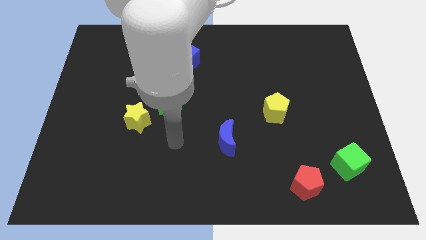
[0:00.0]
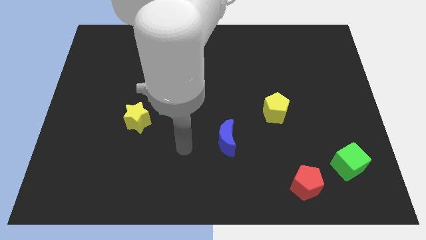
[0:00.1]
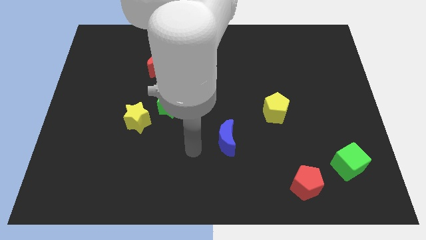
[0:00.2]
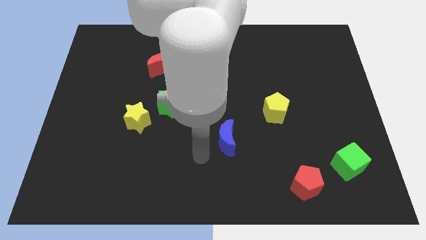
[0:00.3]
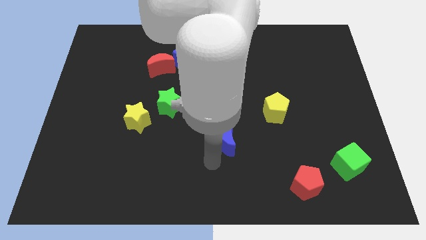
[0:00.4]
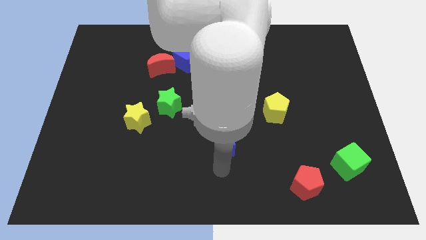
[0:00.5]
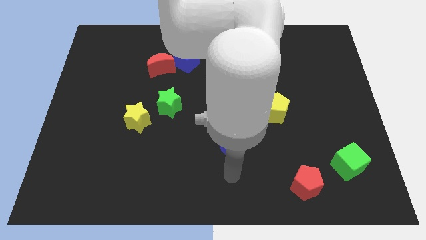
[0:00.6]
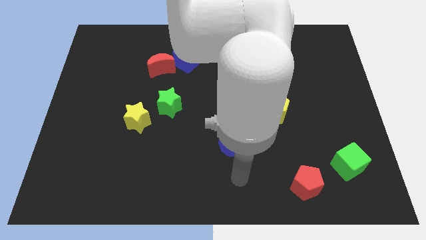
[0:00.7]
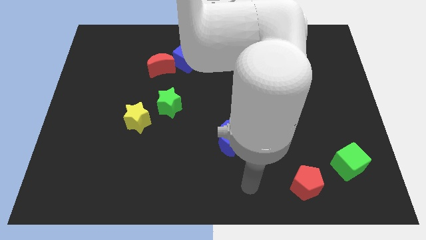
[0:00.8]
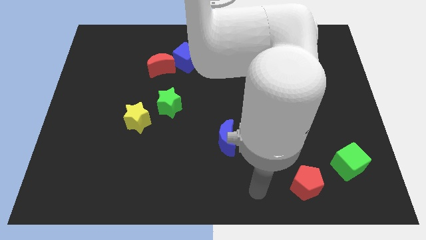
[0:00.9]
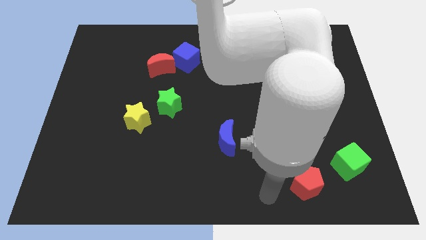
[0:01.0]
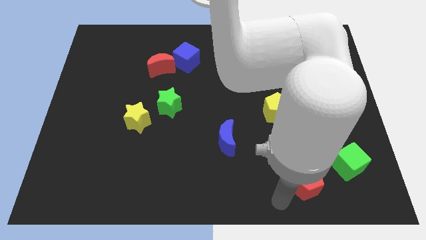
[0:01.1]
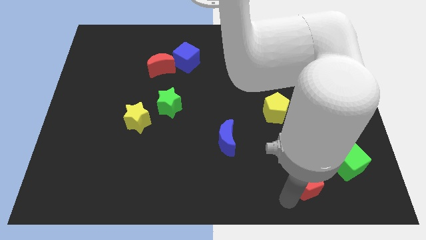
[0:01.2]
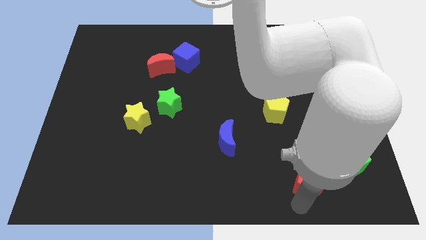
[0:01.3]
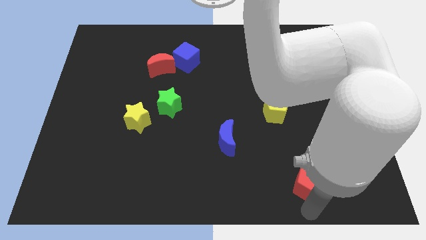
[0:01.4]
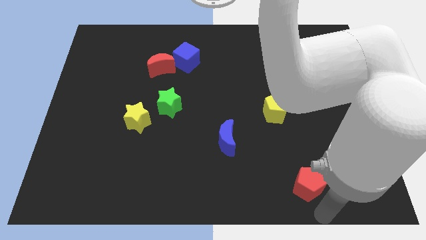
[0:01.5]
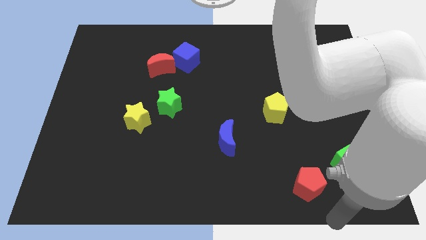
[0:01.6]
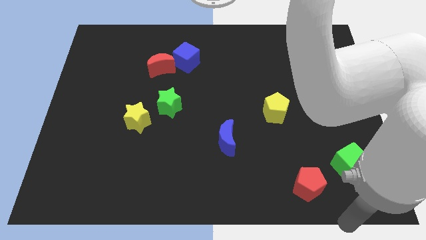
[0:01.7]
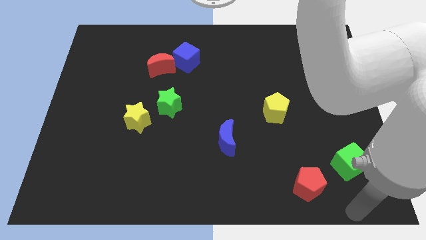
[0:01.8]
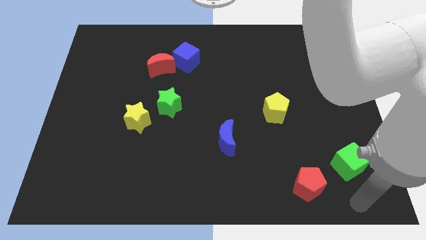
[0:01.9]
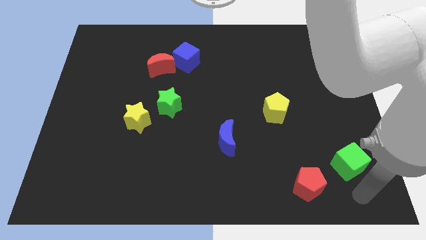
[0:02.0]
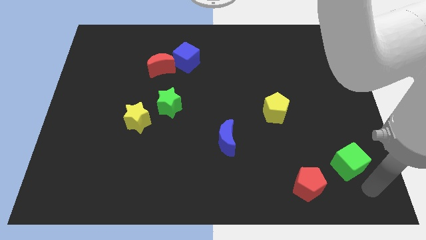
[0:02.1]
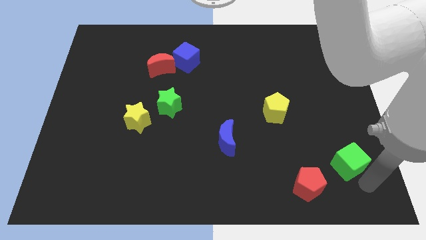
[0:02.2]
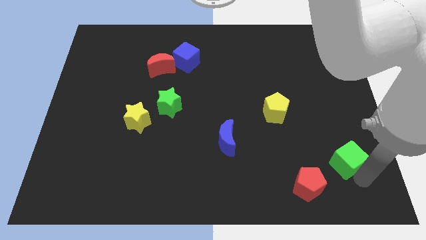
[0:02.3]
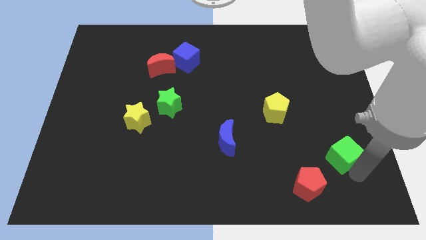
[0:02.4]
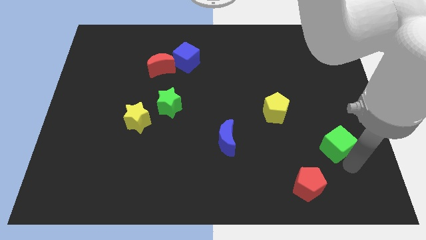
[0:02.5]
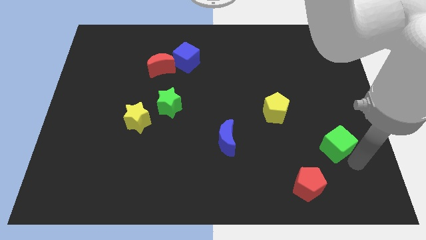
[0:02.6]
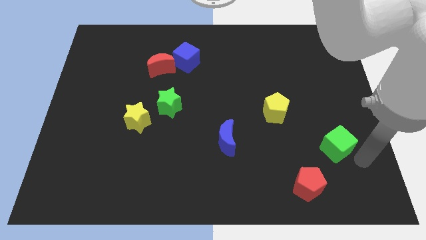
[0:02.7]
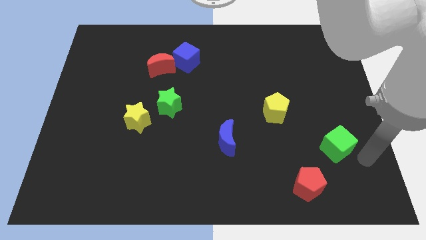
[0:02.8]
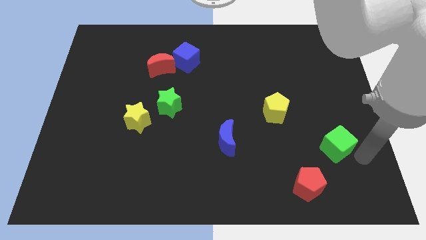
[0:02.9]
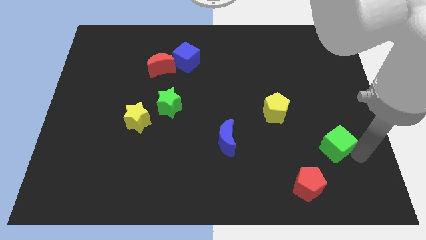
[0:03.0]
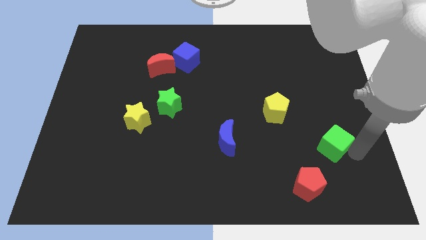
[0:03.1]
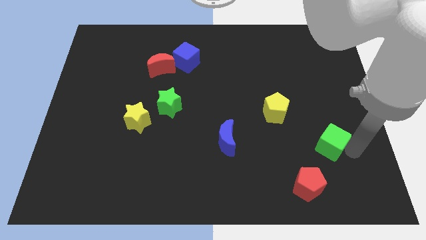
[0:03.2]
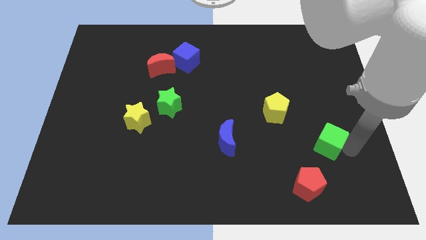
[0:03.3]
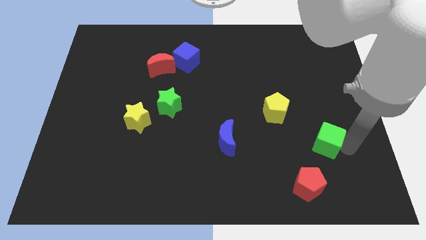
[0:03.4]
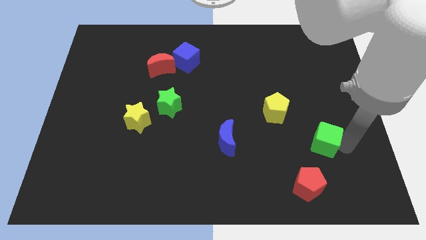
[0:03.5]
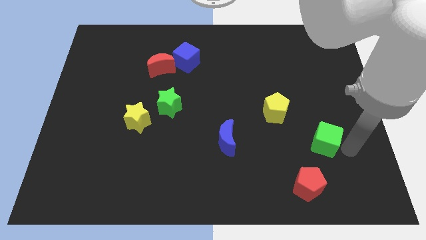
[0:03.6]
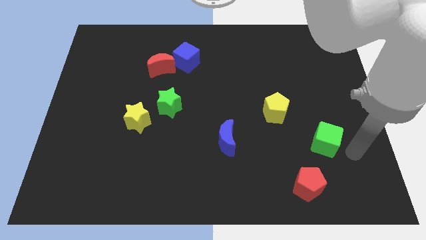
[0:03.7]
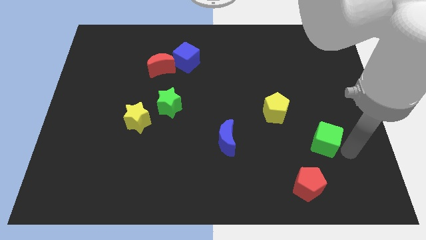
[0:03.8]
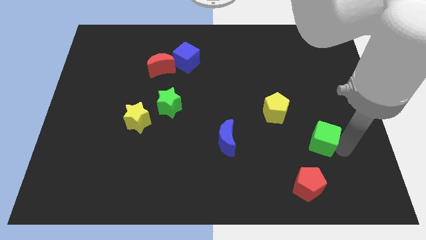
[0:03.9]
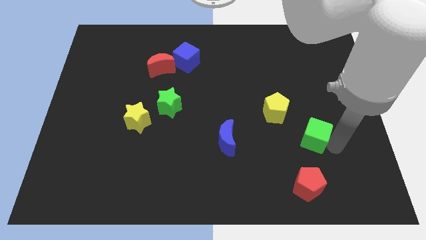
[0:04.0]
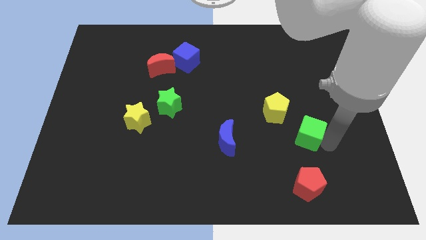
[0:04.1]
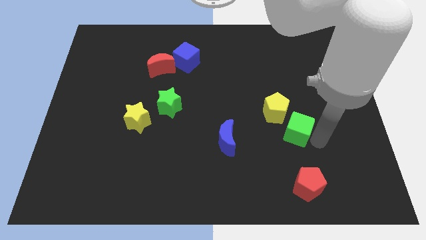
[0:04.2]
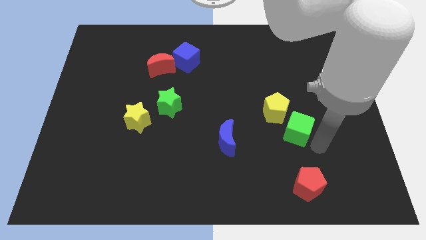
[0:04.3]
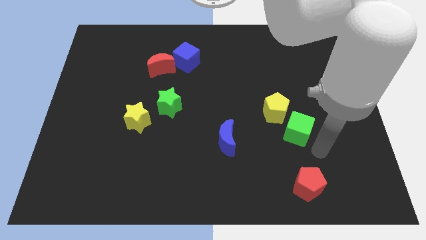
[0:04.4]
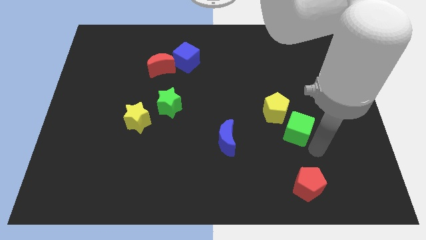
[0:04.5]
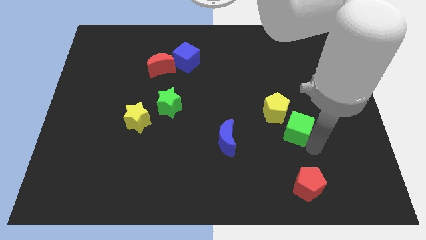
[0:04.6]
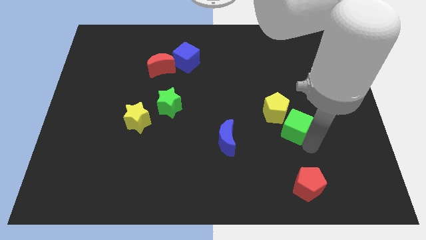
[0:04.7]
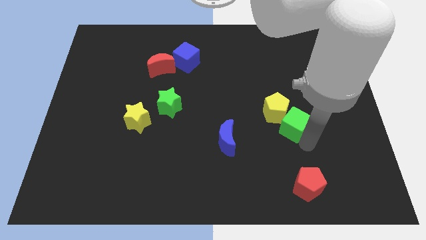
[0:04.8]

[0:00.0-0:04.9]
push the green cube next to the yellow pentagon

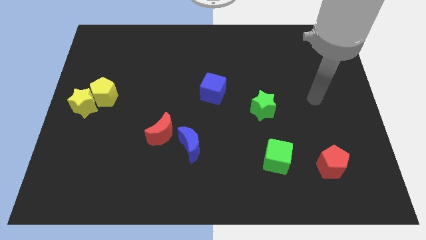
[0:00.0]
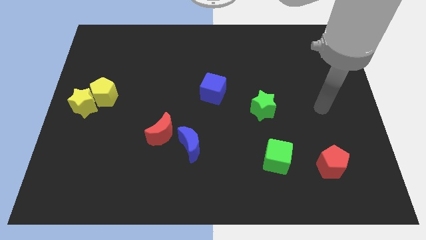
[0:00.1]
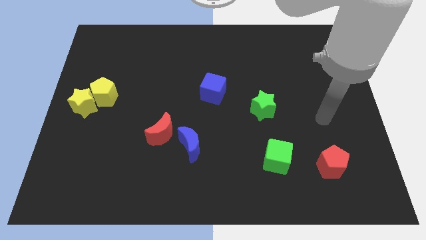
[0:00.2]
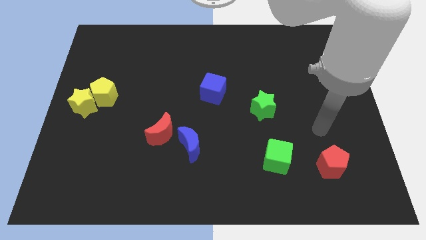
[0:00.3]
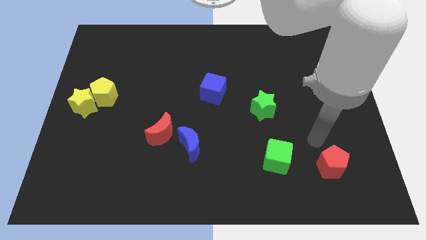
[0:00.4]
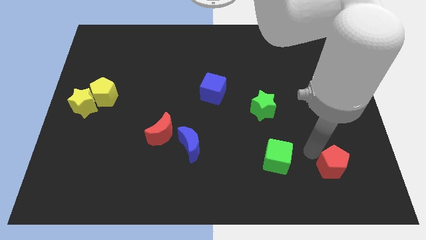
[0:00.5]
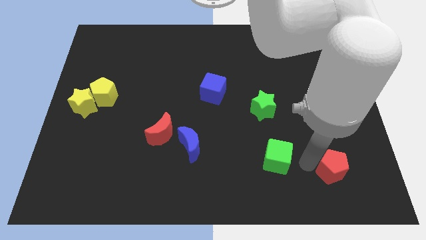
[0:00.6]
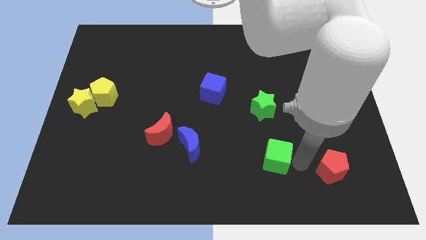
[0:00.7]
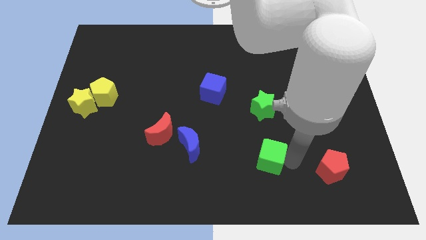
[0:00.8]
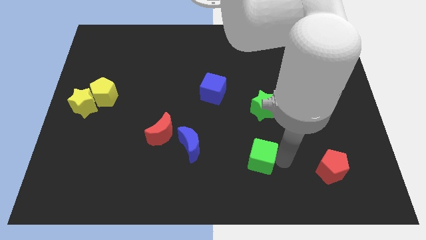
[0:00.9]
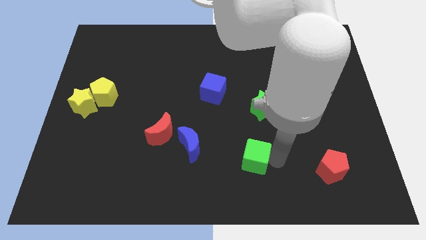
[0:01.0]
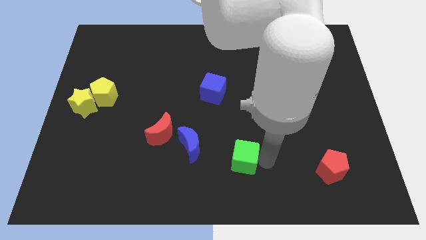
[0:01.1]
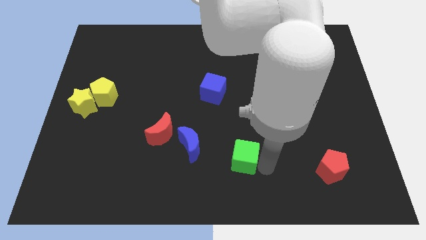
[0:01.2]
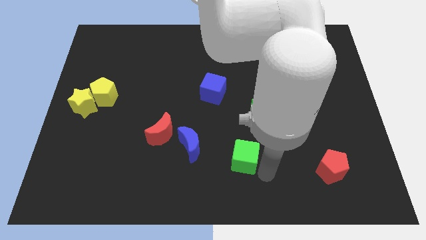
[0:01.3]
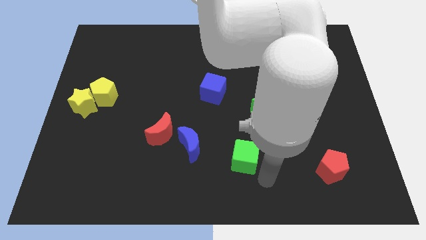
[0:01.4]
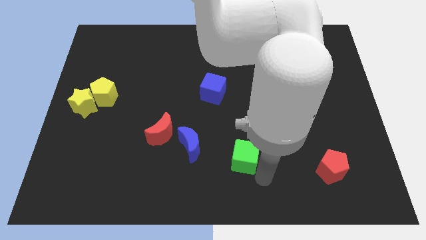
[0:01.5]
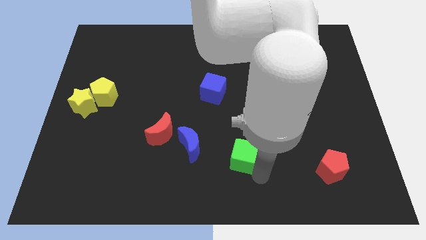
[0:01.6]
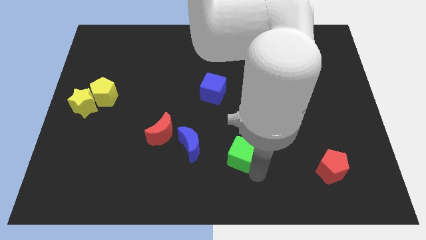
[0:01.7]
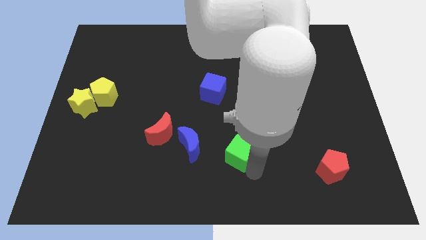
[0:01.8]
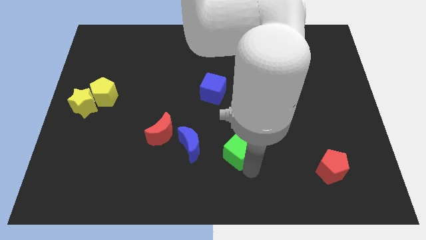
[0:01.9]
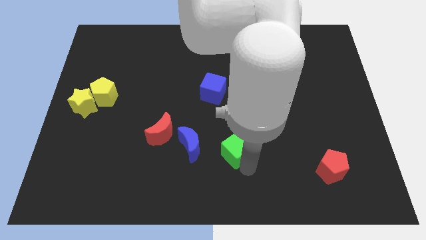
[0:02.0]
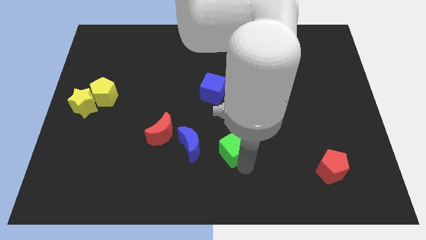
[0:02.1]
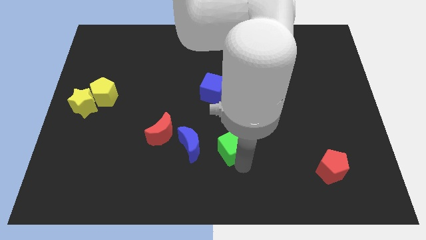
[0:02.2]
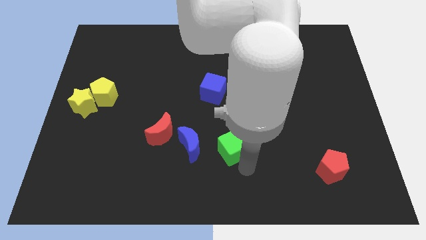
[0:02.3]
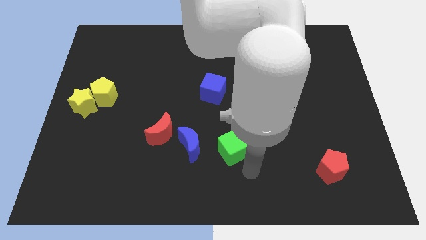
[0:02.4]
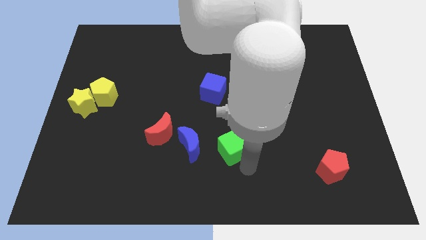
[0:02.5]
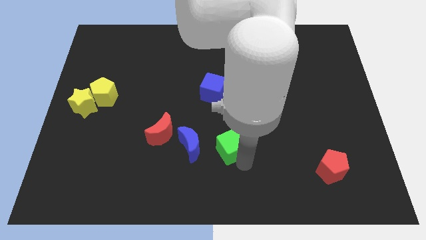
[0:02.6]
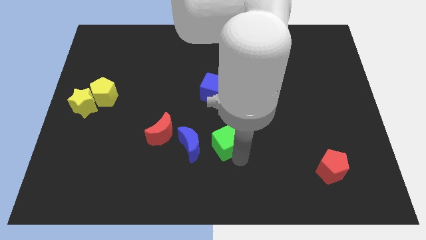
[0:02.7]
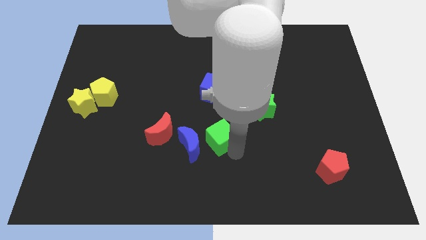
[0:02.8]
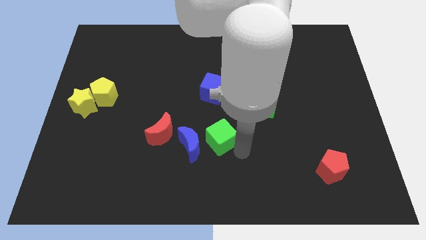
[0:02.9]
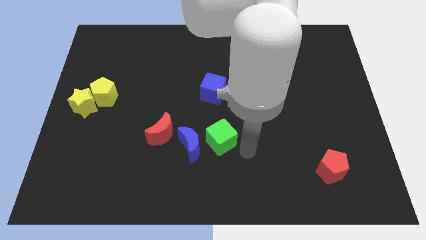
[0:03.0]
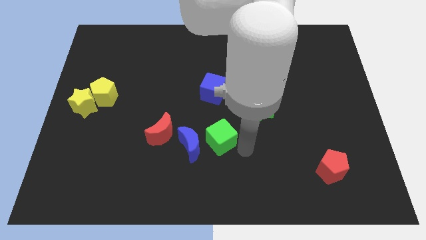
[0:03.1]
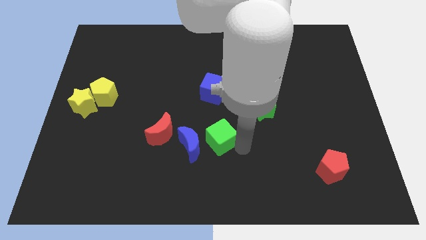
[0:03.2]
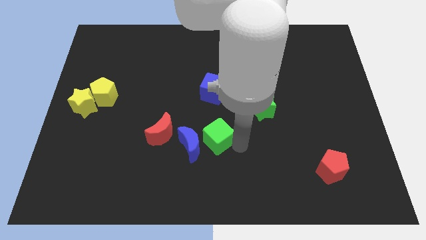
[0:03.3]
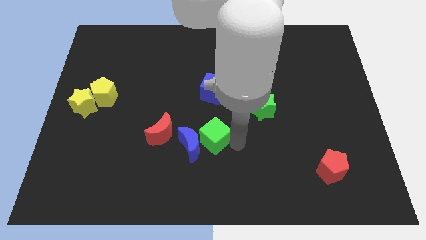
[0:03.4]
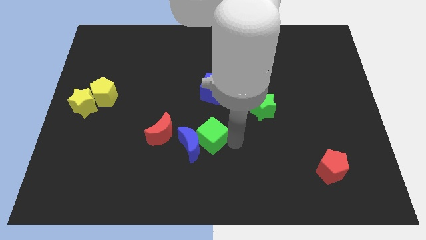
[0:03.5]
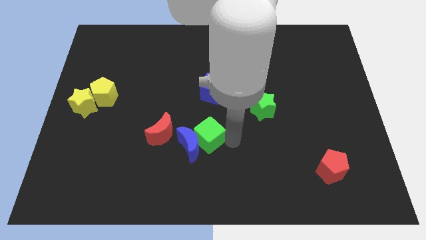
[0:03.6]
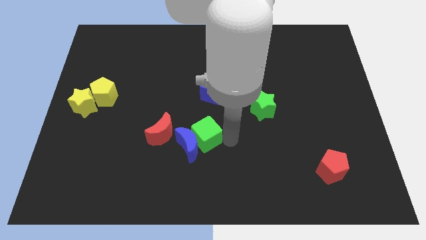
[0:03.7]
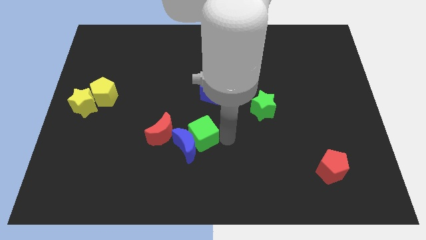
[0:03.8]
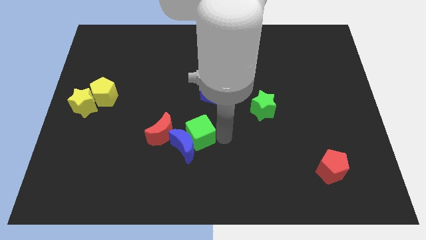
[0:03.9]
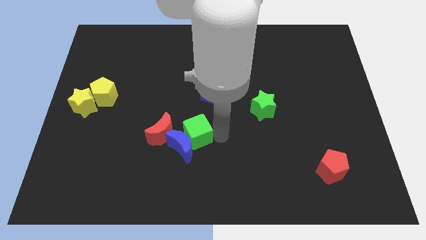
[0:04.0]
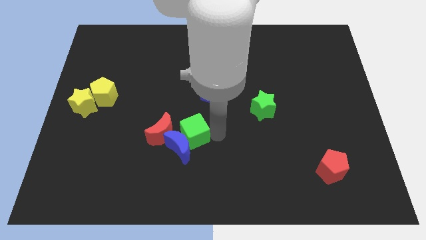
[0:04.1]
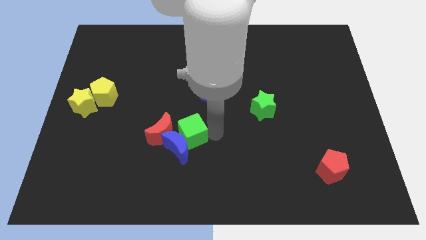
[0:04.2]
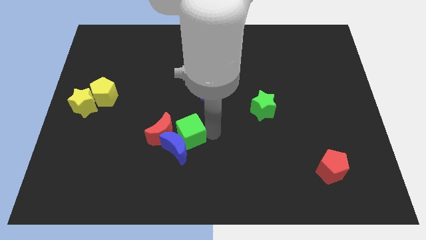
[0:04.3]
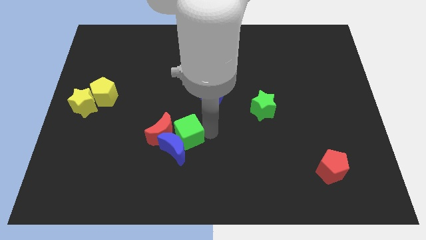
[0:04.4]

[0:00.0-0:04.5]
put the green cube towards the red moon
